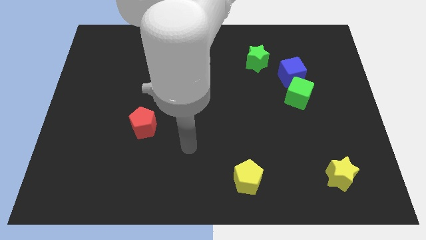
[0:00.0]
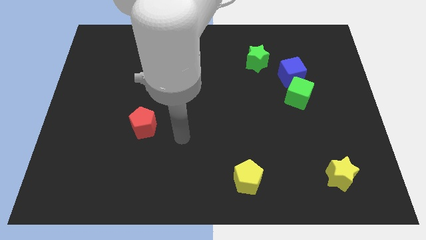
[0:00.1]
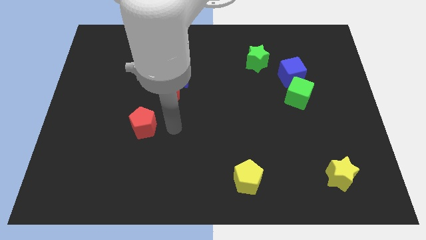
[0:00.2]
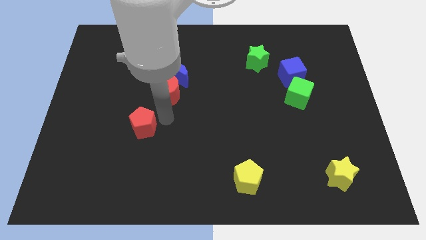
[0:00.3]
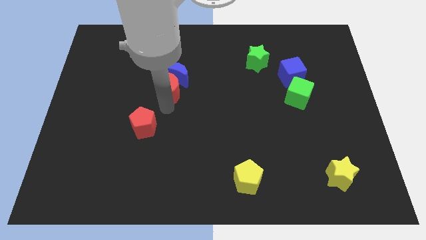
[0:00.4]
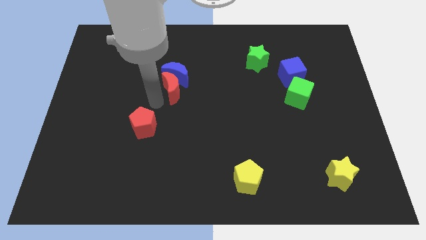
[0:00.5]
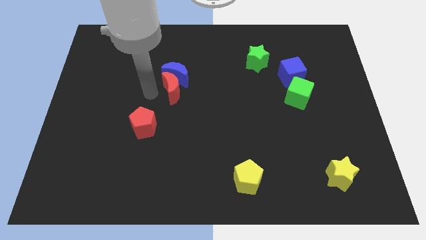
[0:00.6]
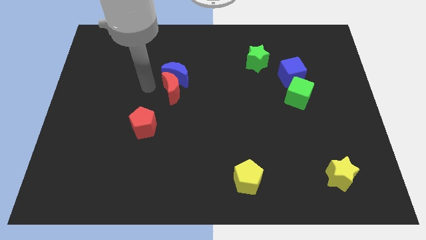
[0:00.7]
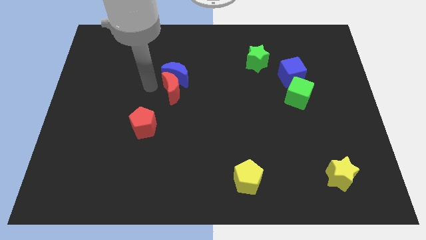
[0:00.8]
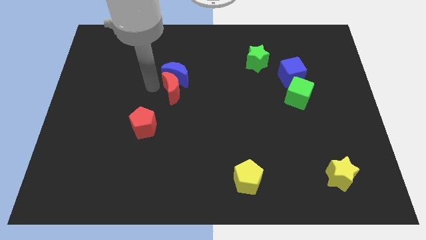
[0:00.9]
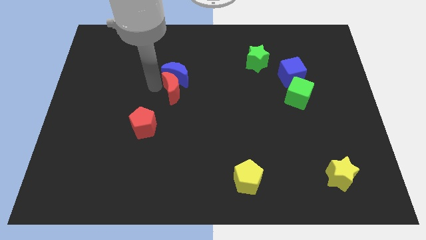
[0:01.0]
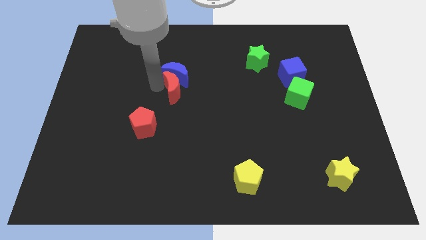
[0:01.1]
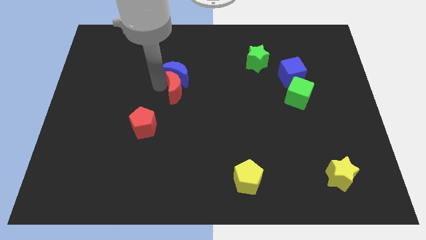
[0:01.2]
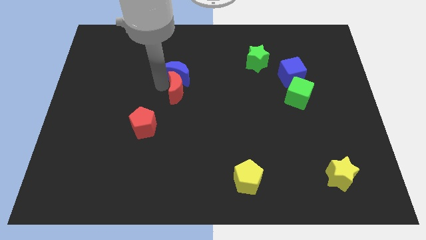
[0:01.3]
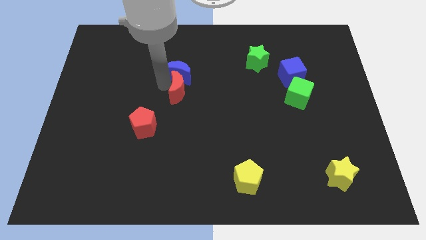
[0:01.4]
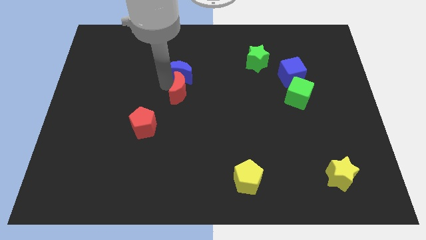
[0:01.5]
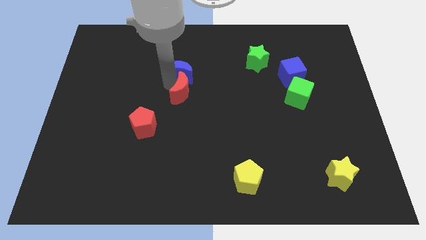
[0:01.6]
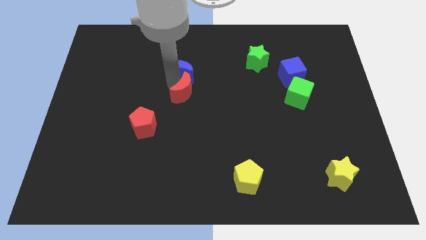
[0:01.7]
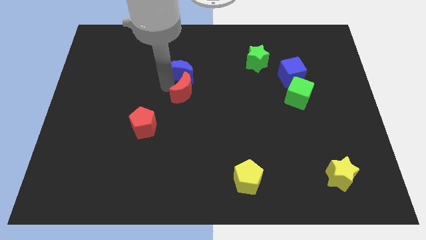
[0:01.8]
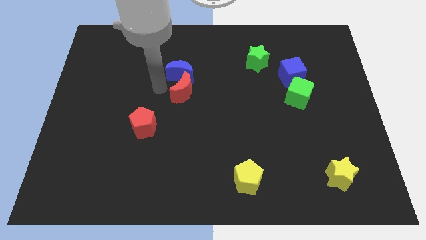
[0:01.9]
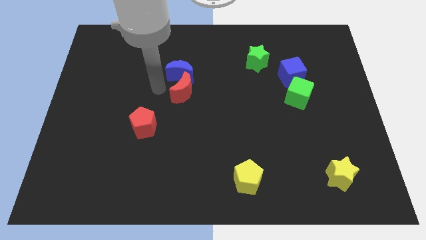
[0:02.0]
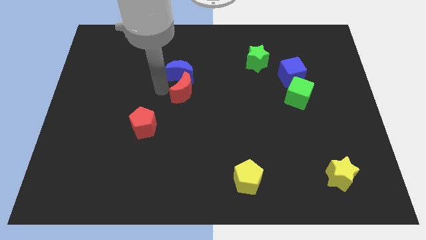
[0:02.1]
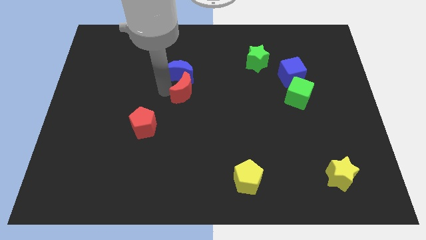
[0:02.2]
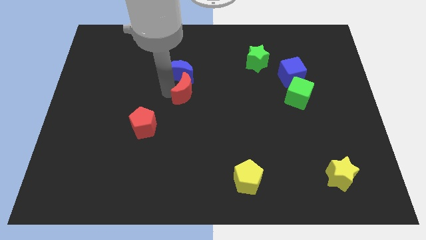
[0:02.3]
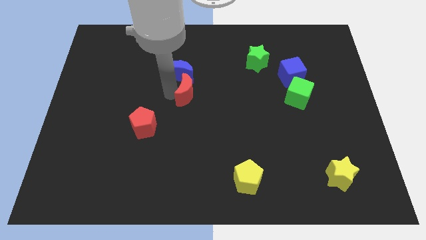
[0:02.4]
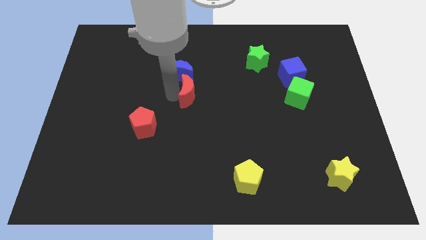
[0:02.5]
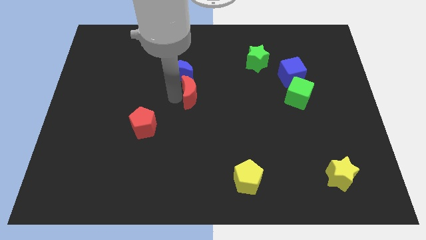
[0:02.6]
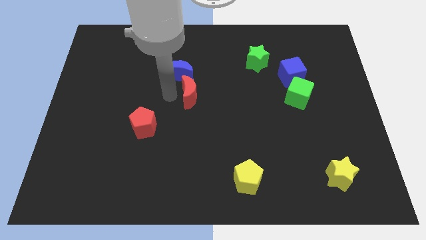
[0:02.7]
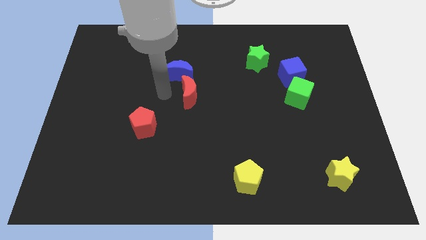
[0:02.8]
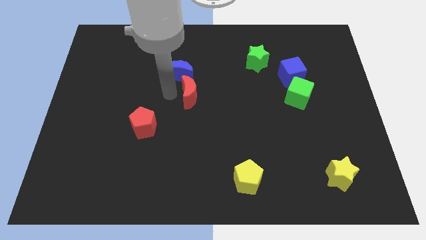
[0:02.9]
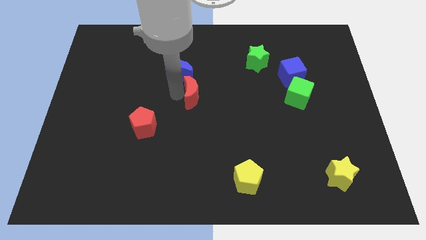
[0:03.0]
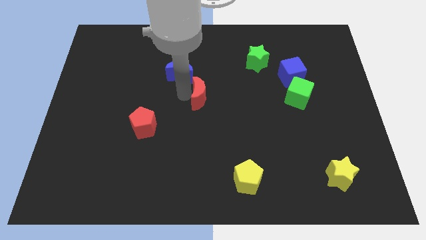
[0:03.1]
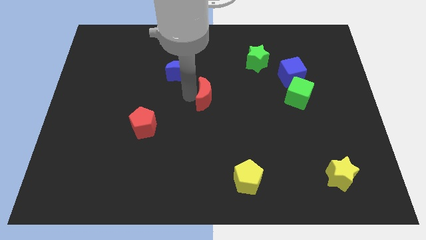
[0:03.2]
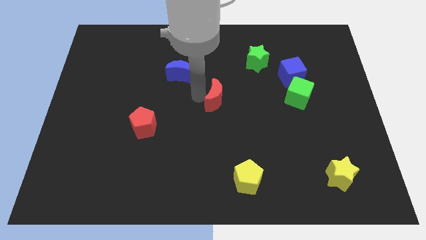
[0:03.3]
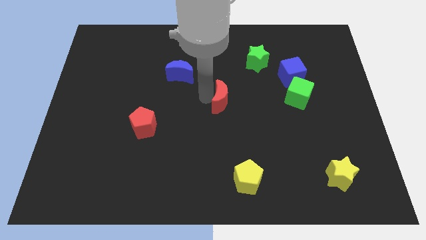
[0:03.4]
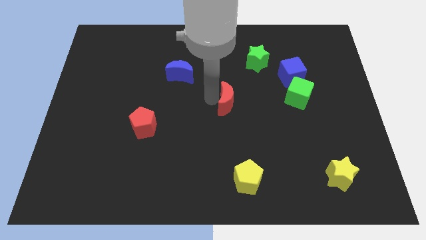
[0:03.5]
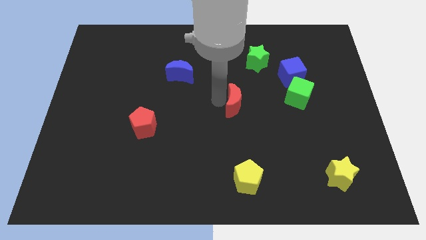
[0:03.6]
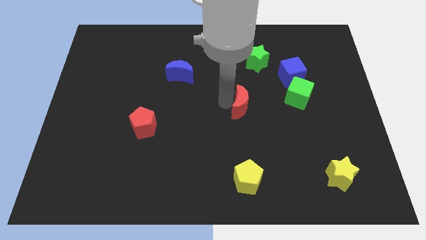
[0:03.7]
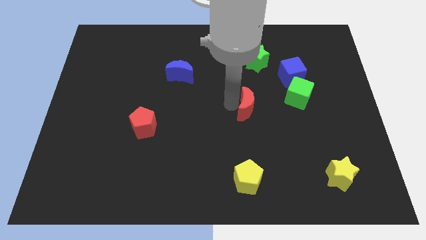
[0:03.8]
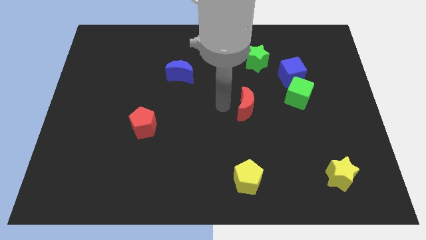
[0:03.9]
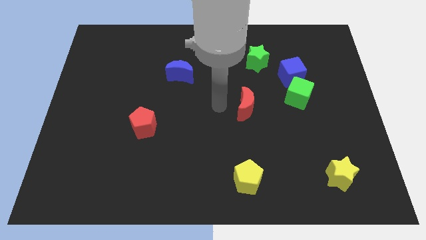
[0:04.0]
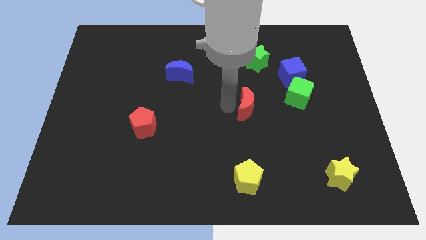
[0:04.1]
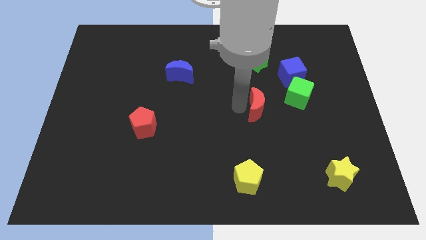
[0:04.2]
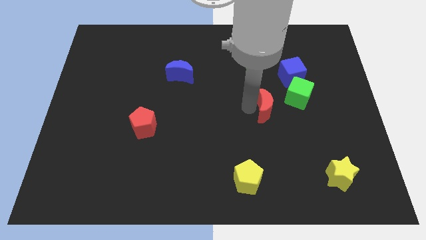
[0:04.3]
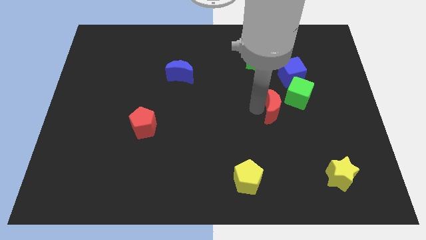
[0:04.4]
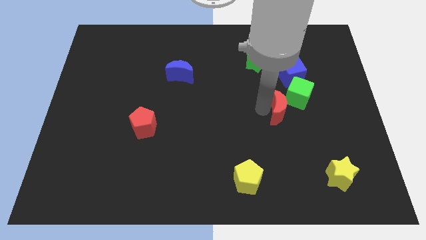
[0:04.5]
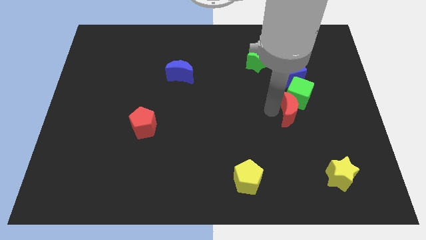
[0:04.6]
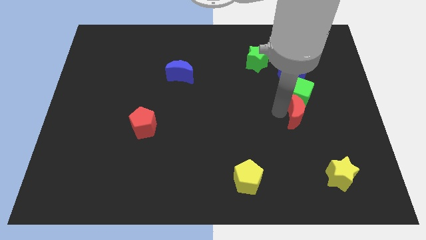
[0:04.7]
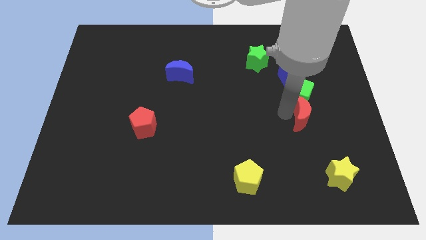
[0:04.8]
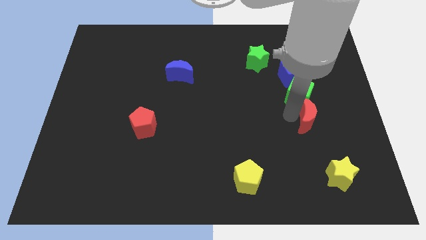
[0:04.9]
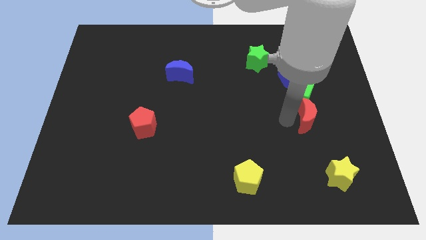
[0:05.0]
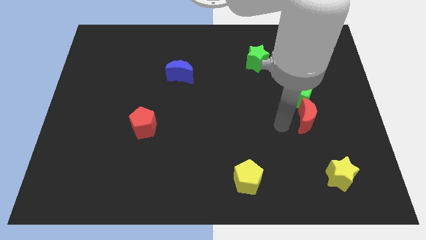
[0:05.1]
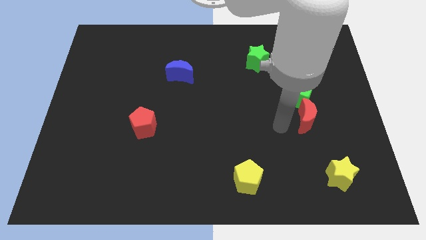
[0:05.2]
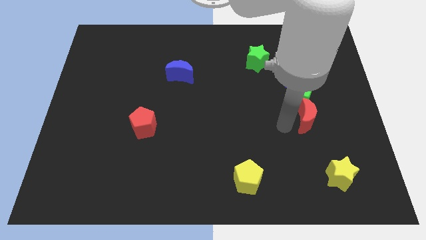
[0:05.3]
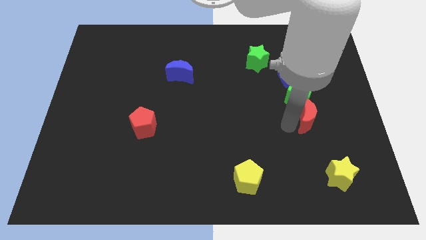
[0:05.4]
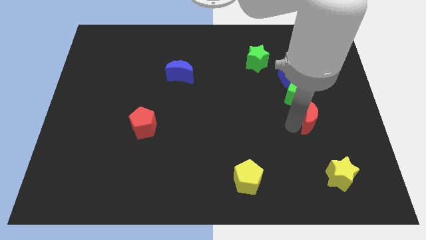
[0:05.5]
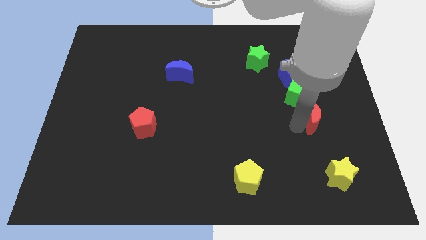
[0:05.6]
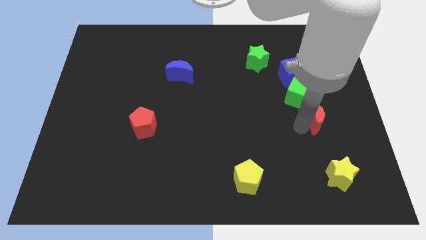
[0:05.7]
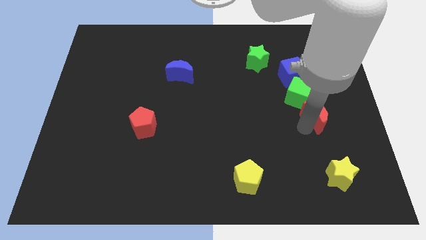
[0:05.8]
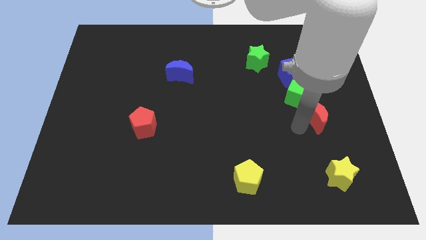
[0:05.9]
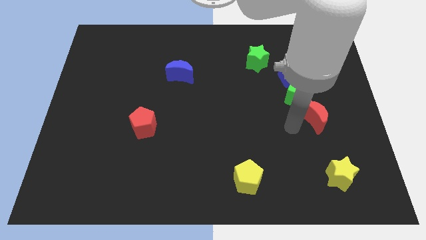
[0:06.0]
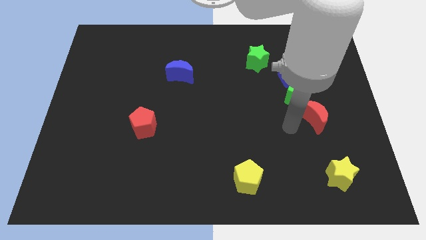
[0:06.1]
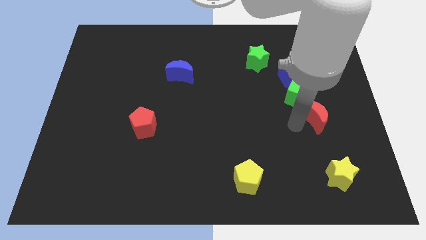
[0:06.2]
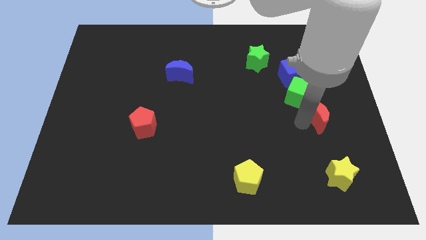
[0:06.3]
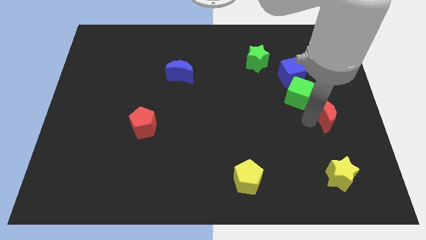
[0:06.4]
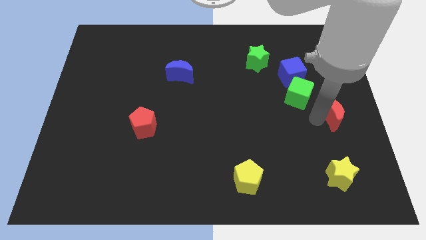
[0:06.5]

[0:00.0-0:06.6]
put the red moon to the right side of the board

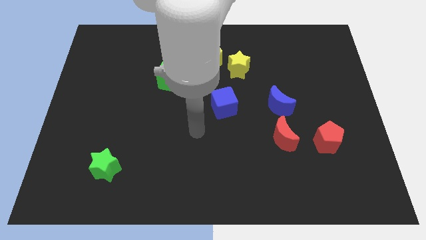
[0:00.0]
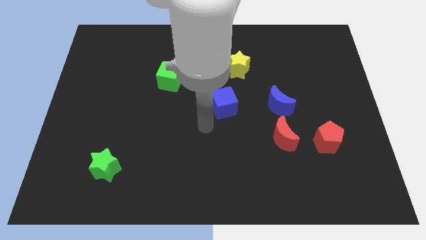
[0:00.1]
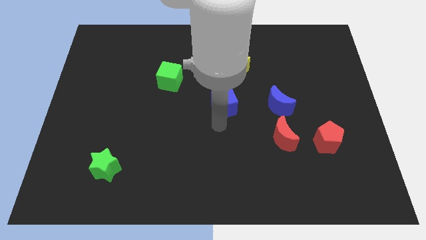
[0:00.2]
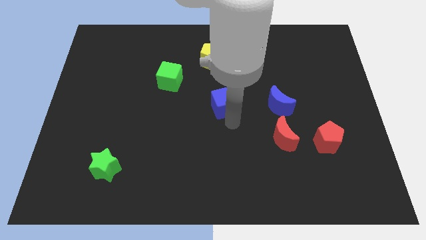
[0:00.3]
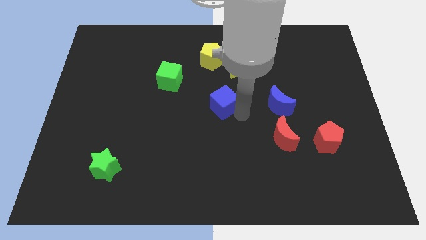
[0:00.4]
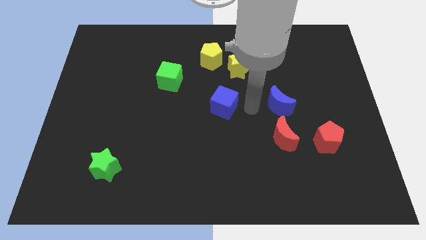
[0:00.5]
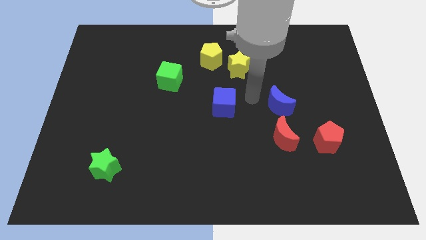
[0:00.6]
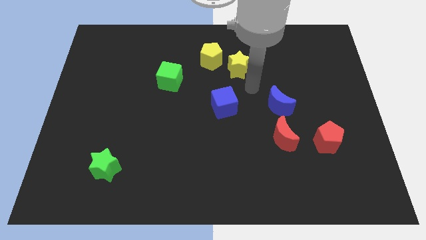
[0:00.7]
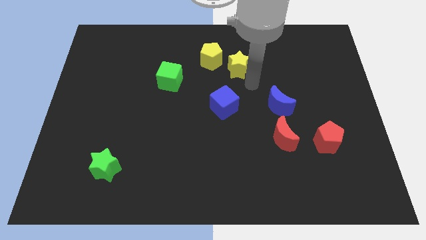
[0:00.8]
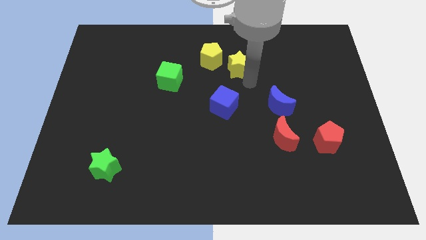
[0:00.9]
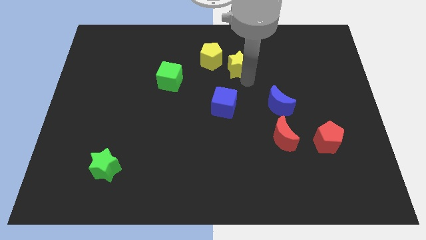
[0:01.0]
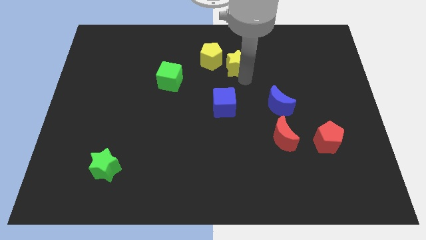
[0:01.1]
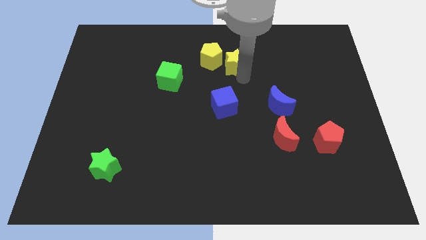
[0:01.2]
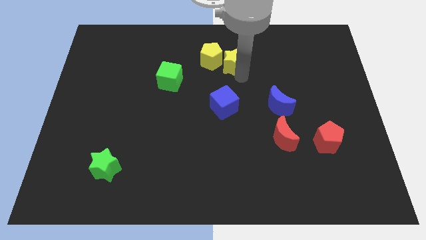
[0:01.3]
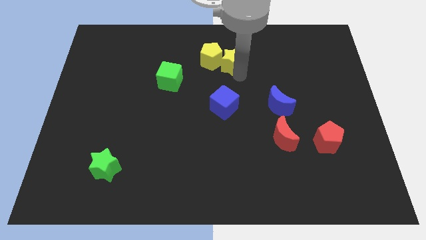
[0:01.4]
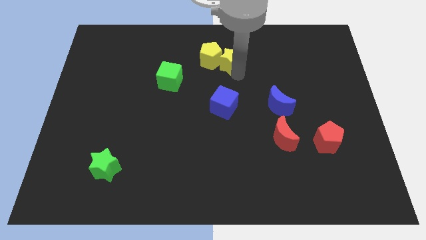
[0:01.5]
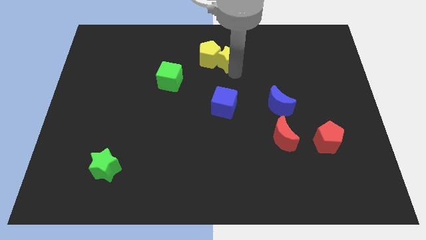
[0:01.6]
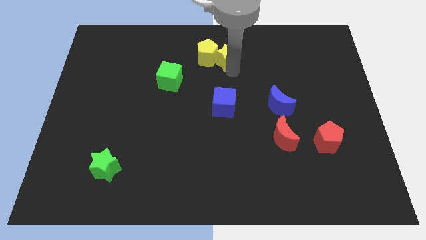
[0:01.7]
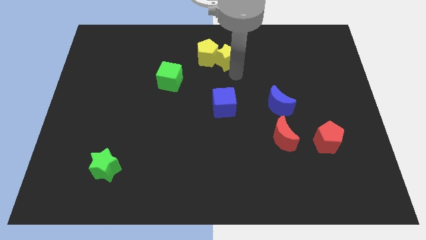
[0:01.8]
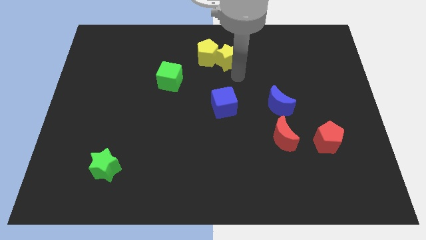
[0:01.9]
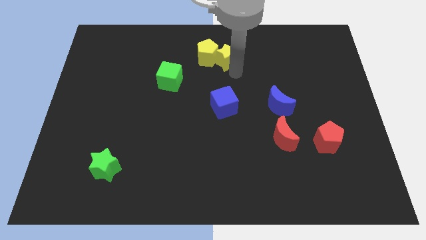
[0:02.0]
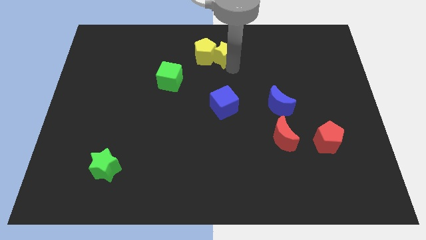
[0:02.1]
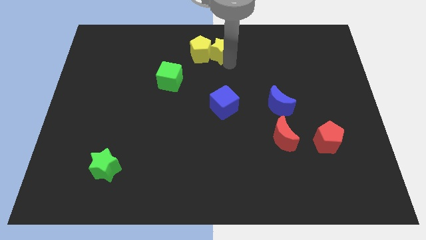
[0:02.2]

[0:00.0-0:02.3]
move the yellow star to the top side
